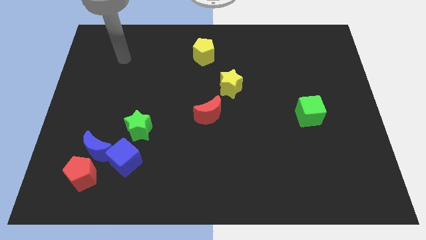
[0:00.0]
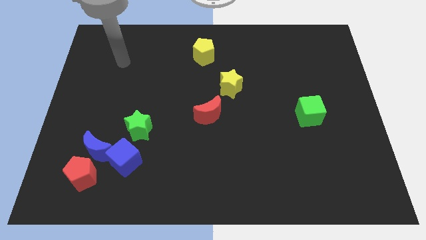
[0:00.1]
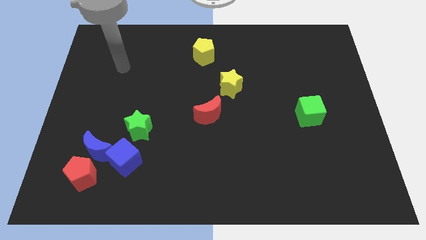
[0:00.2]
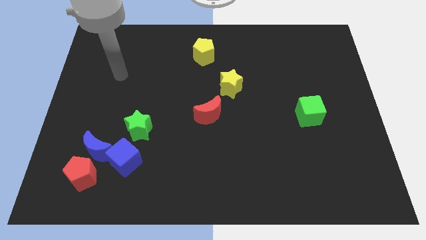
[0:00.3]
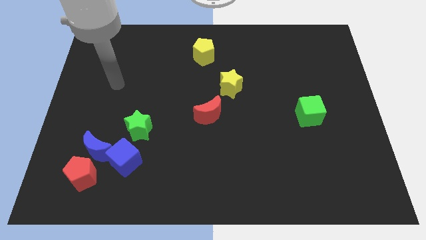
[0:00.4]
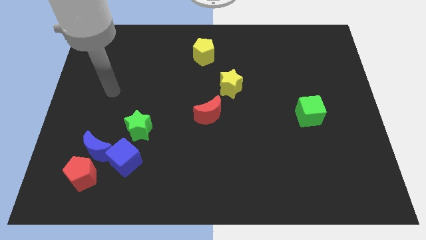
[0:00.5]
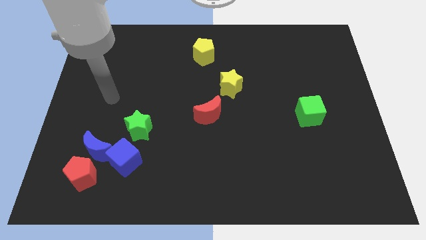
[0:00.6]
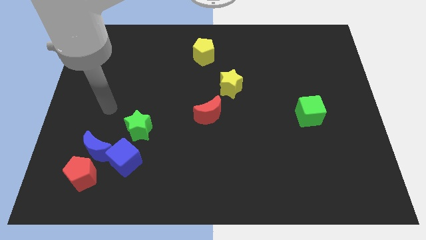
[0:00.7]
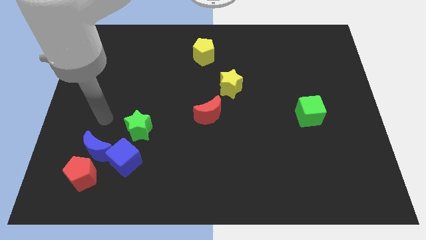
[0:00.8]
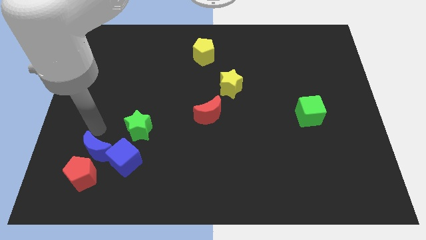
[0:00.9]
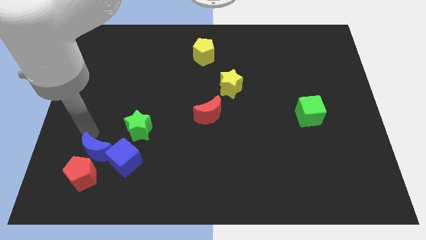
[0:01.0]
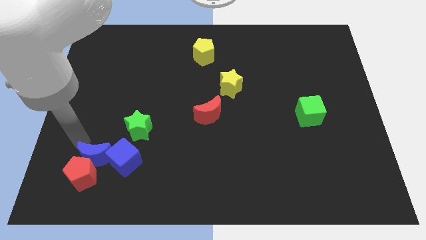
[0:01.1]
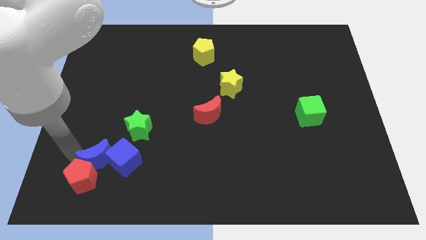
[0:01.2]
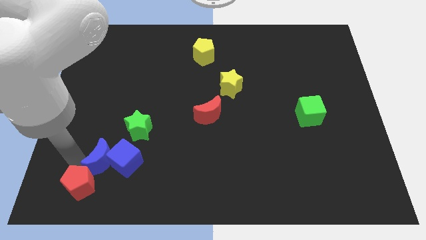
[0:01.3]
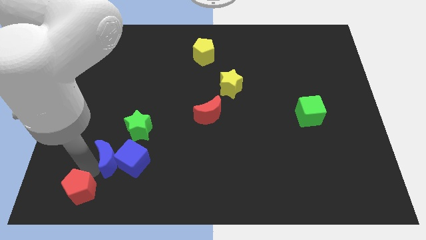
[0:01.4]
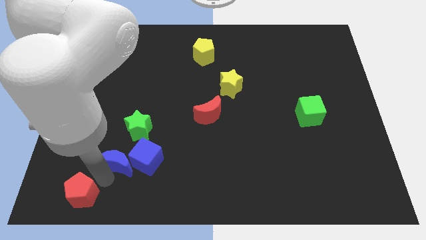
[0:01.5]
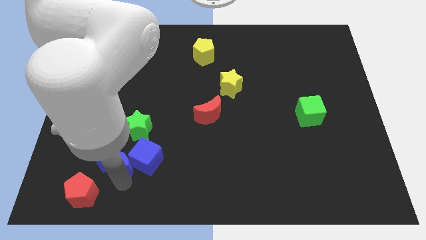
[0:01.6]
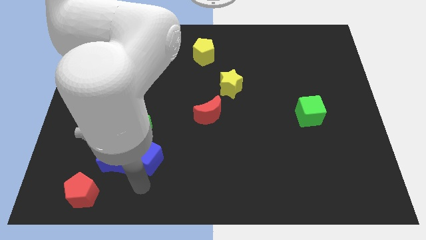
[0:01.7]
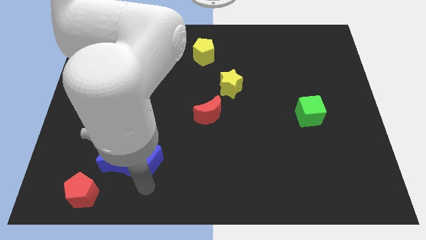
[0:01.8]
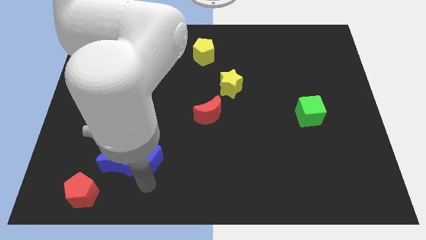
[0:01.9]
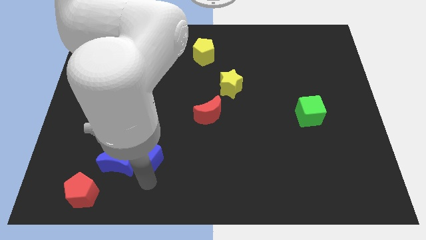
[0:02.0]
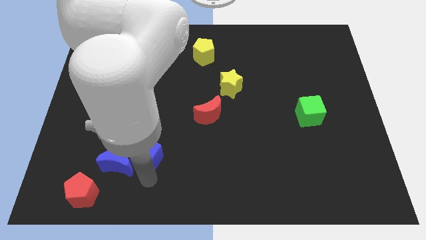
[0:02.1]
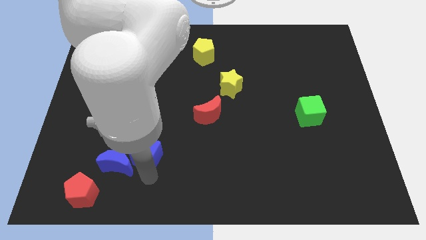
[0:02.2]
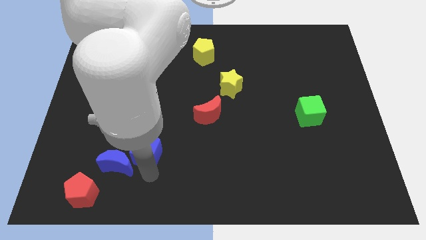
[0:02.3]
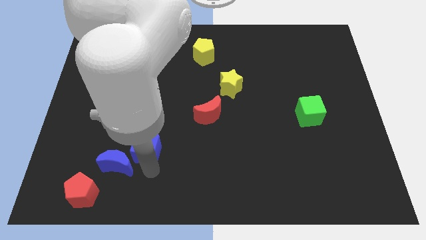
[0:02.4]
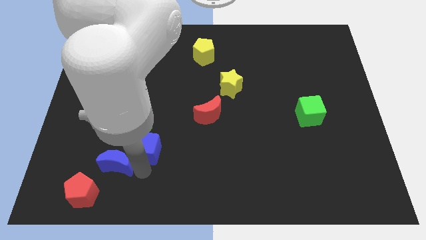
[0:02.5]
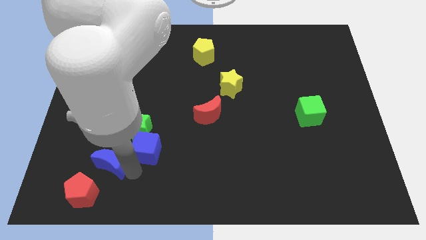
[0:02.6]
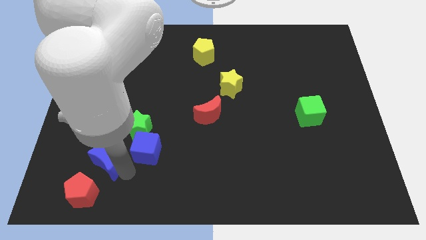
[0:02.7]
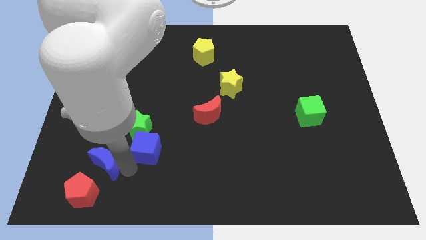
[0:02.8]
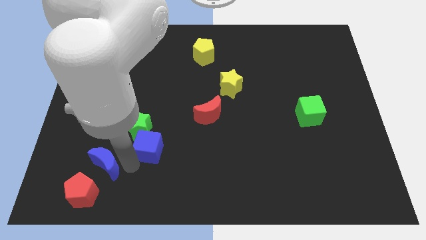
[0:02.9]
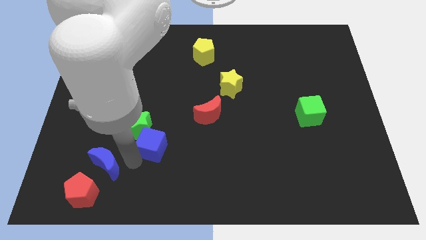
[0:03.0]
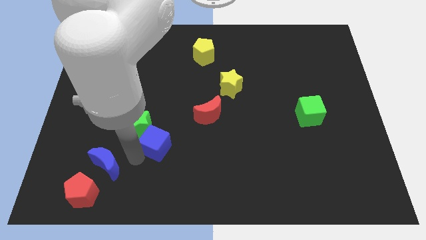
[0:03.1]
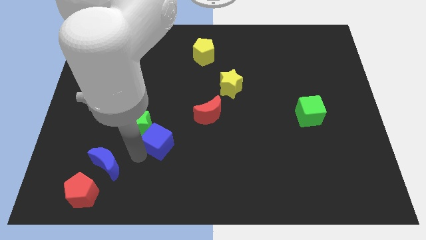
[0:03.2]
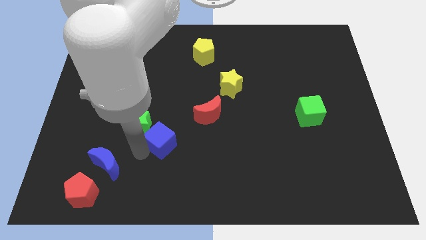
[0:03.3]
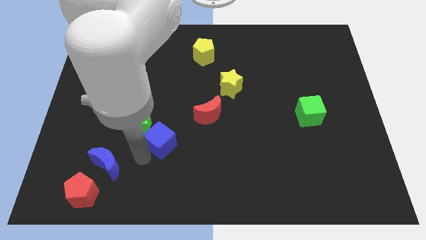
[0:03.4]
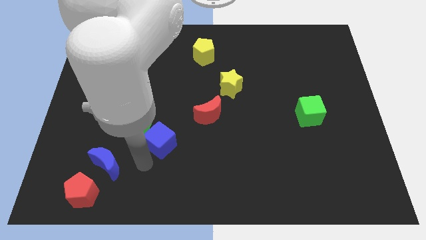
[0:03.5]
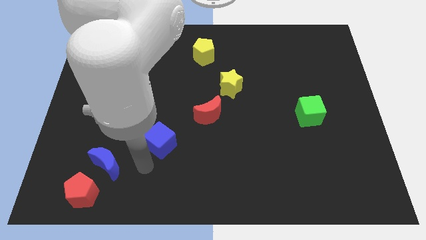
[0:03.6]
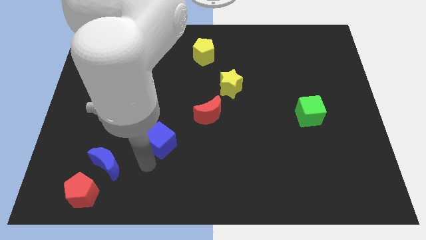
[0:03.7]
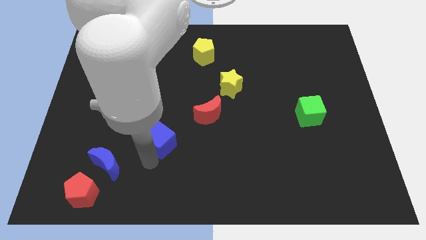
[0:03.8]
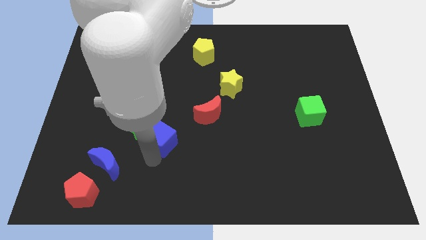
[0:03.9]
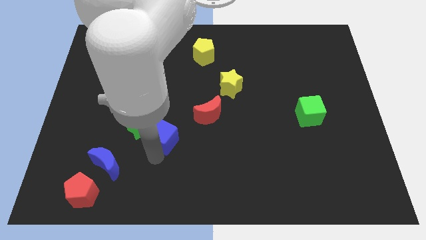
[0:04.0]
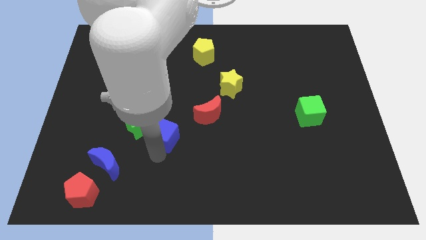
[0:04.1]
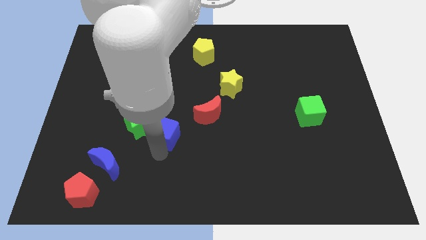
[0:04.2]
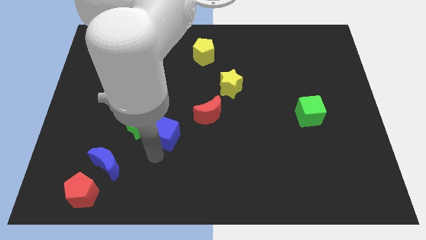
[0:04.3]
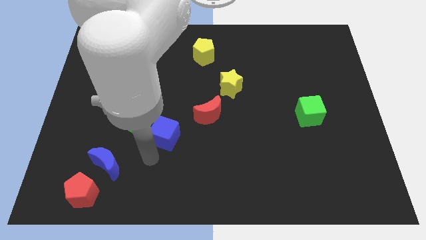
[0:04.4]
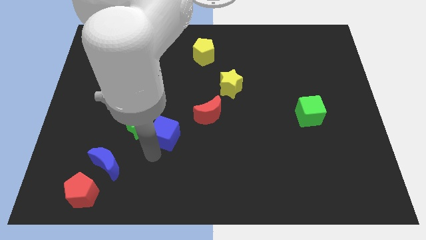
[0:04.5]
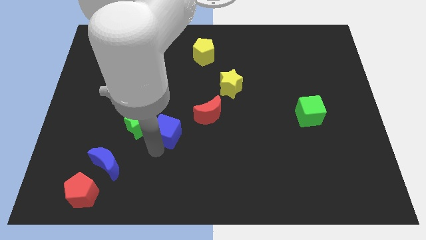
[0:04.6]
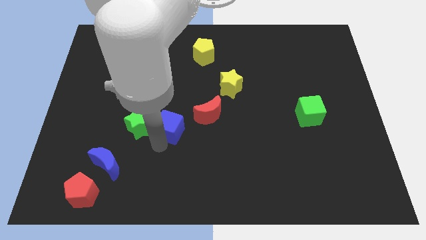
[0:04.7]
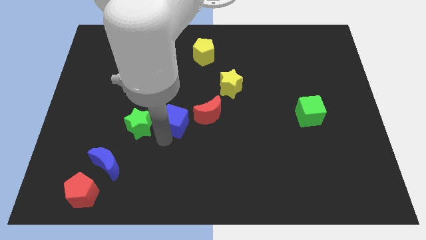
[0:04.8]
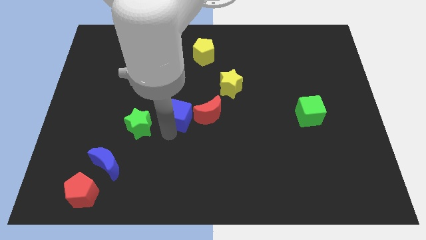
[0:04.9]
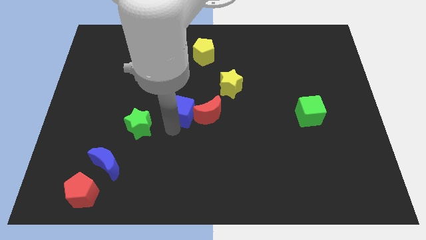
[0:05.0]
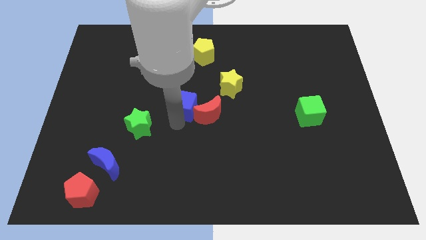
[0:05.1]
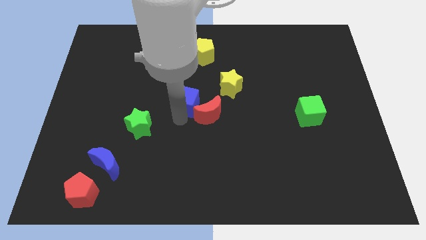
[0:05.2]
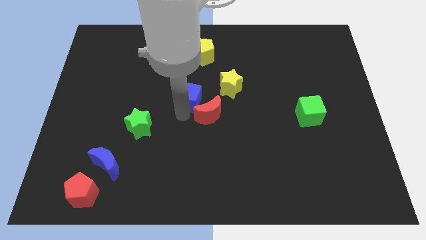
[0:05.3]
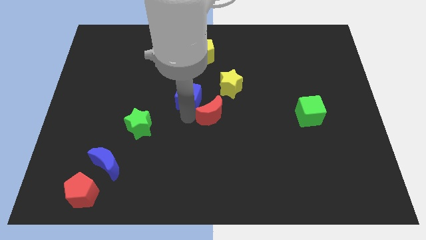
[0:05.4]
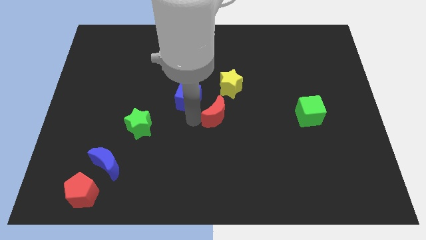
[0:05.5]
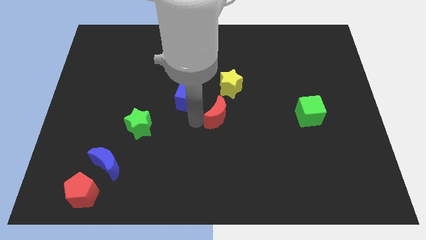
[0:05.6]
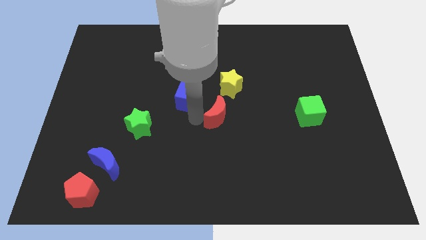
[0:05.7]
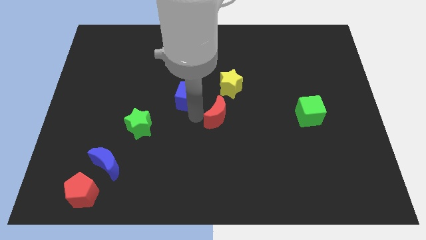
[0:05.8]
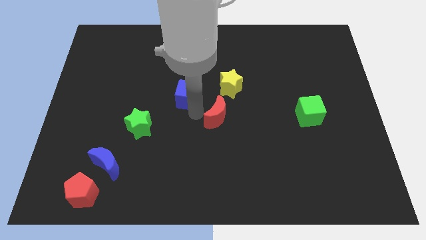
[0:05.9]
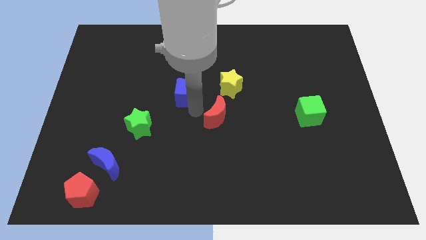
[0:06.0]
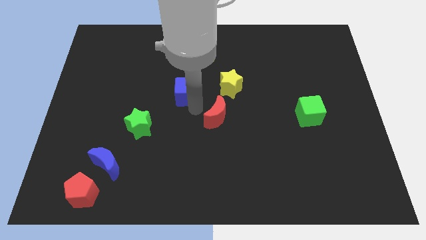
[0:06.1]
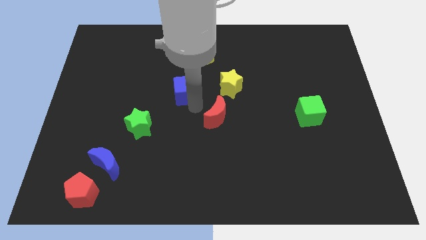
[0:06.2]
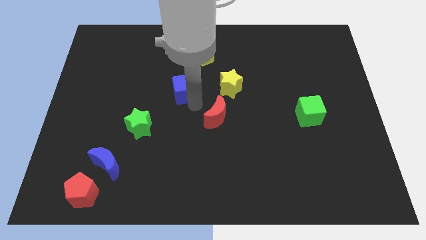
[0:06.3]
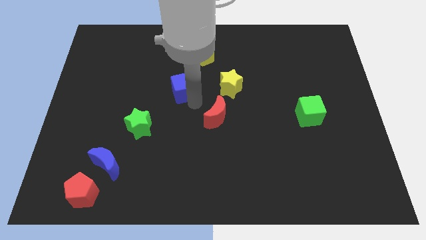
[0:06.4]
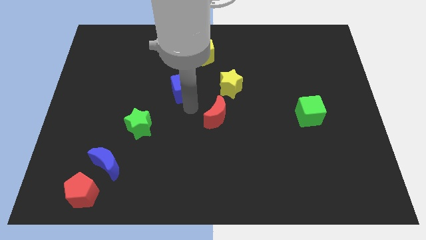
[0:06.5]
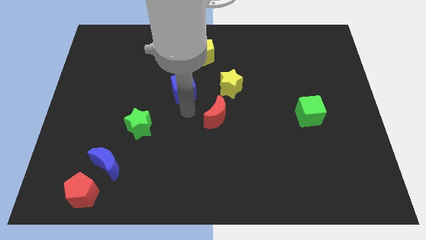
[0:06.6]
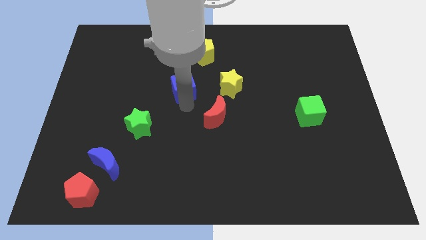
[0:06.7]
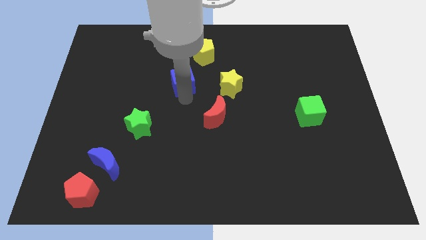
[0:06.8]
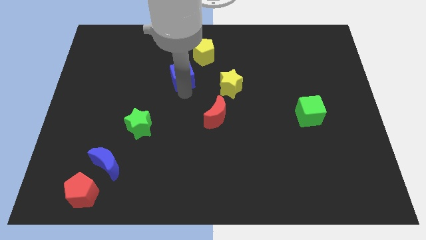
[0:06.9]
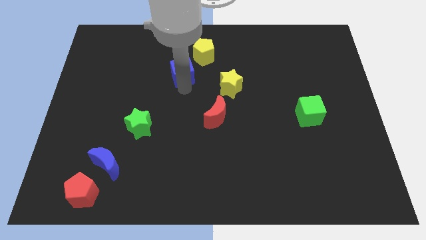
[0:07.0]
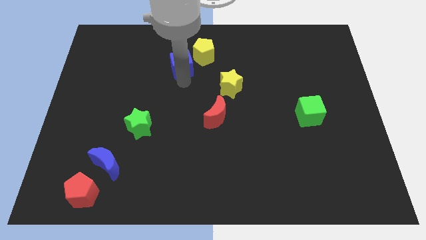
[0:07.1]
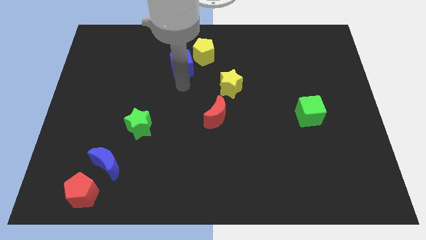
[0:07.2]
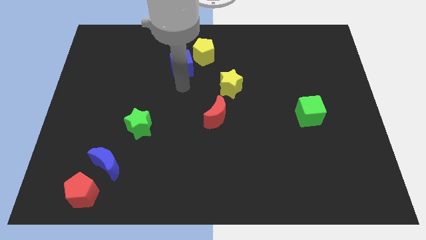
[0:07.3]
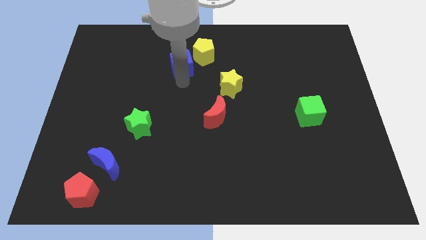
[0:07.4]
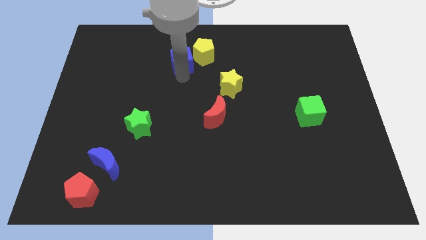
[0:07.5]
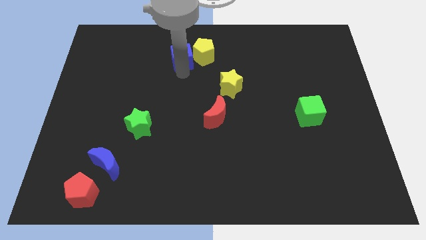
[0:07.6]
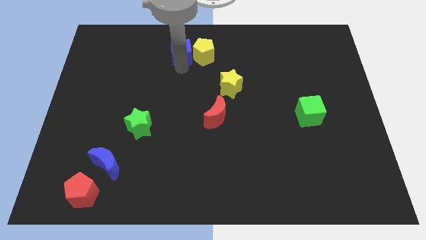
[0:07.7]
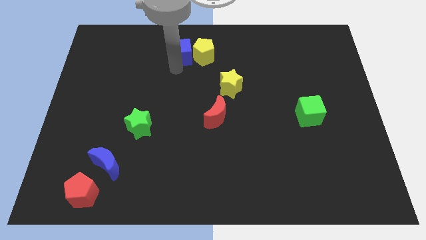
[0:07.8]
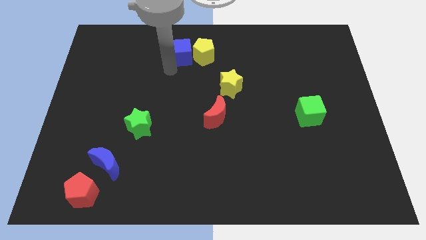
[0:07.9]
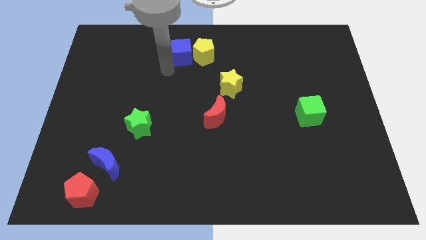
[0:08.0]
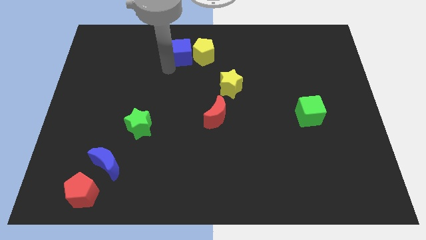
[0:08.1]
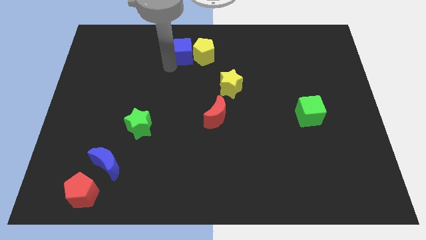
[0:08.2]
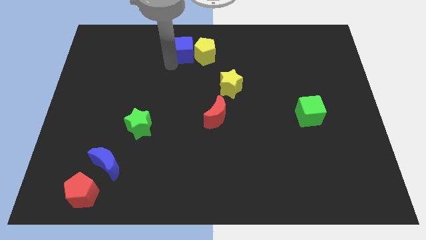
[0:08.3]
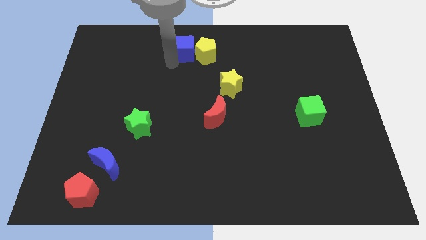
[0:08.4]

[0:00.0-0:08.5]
put the blue cube to the towards your base
